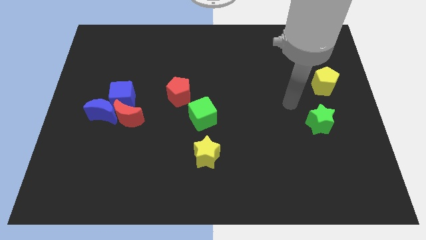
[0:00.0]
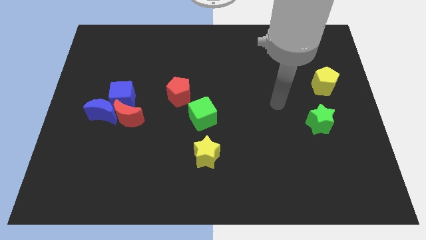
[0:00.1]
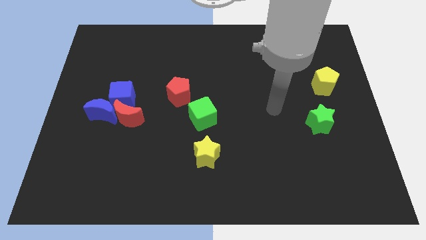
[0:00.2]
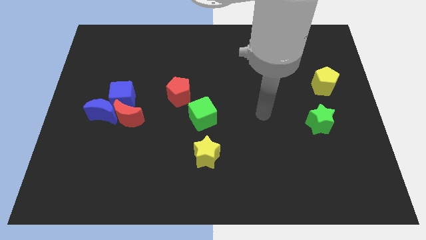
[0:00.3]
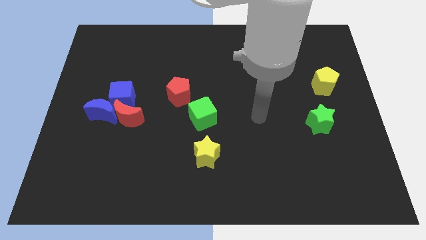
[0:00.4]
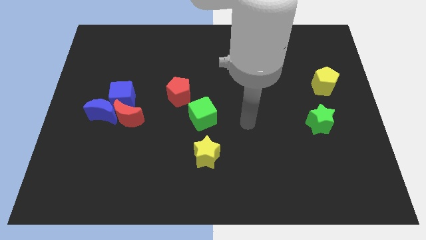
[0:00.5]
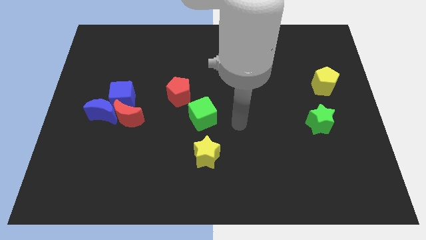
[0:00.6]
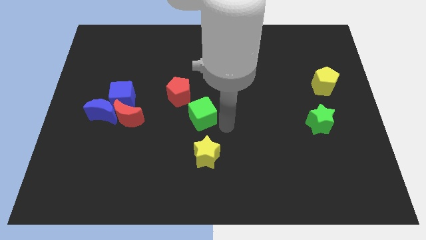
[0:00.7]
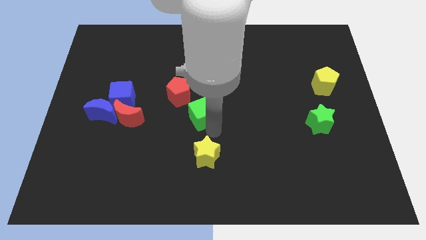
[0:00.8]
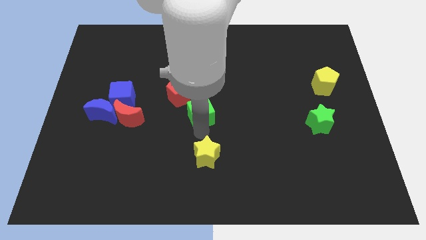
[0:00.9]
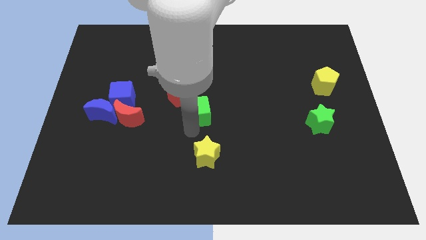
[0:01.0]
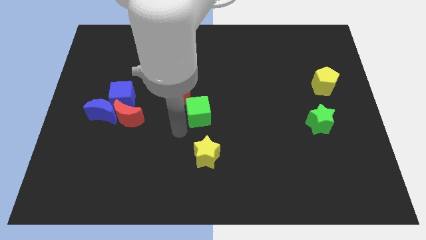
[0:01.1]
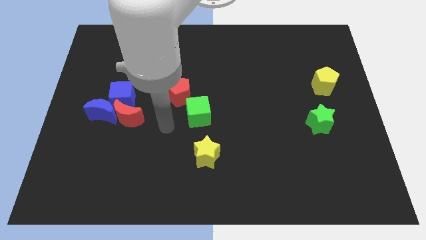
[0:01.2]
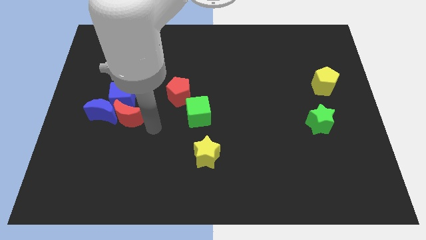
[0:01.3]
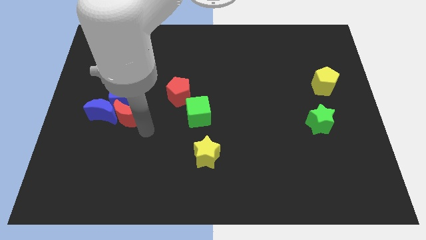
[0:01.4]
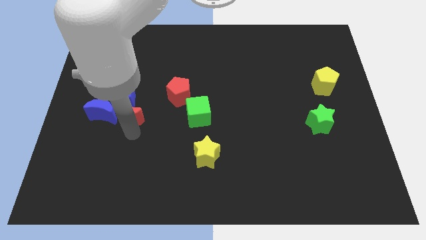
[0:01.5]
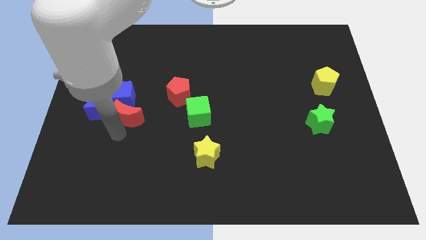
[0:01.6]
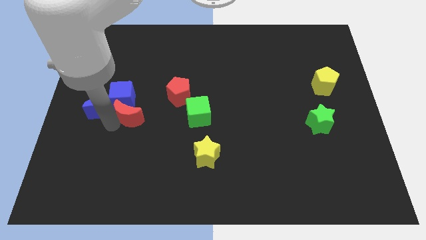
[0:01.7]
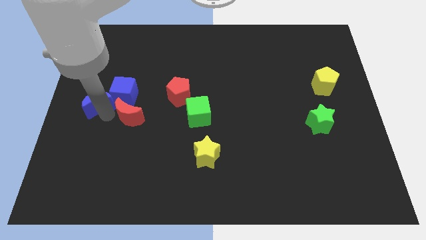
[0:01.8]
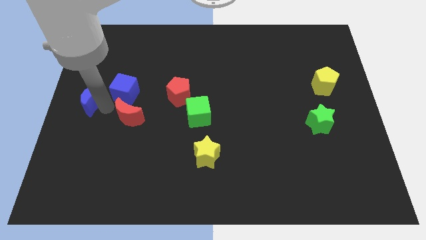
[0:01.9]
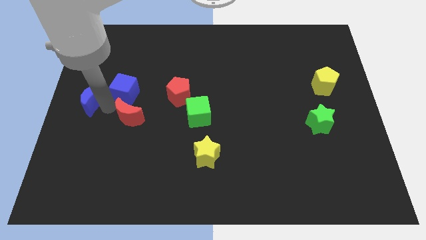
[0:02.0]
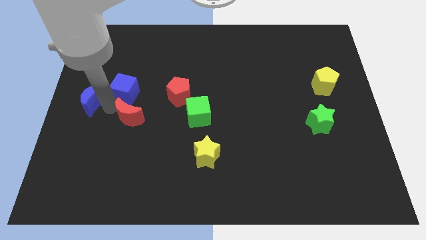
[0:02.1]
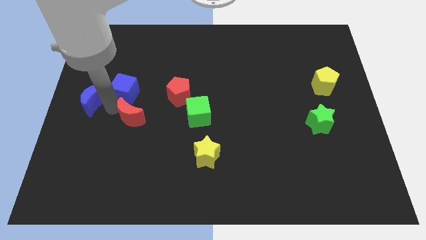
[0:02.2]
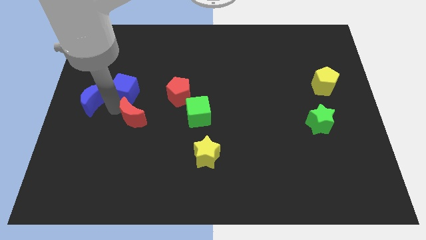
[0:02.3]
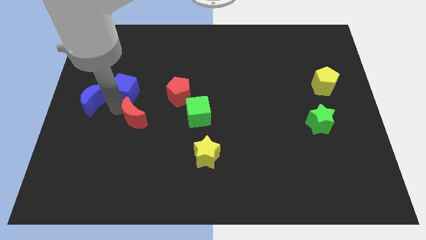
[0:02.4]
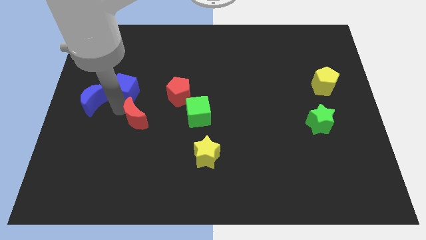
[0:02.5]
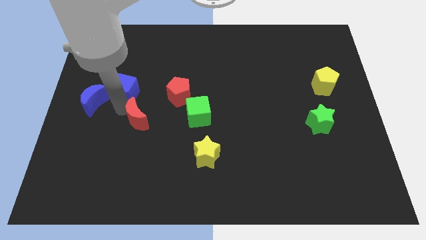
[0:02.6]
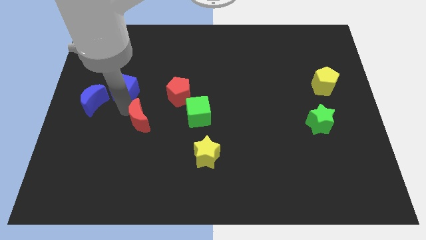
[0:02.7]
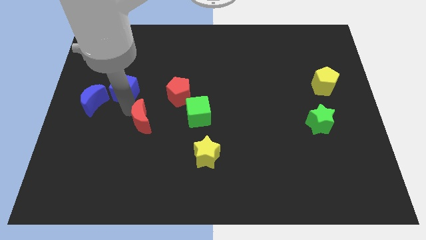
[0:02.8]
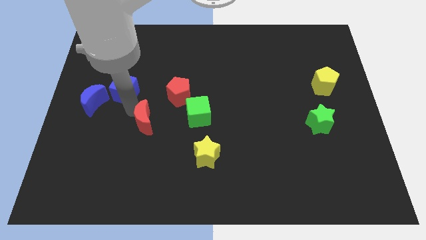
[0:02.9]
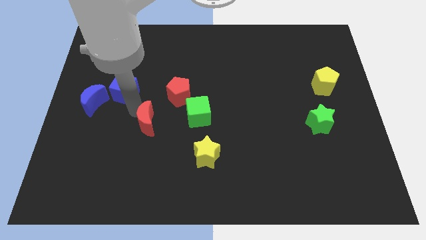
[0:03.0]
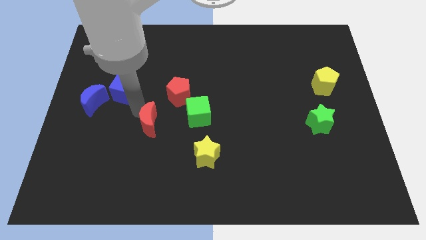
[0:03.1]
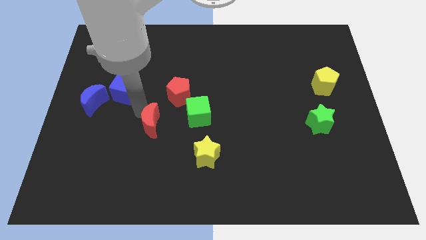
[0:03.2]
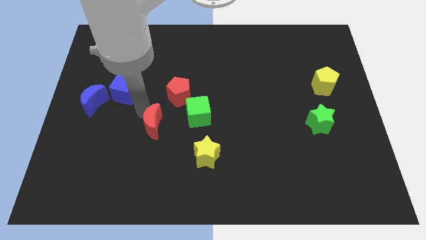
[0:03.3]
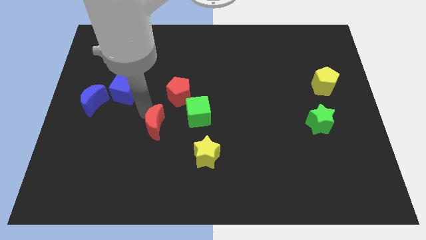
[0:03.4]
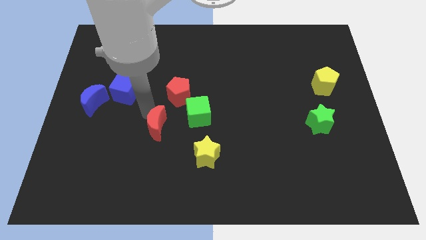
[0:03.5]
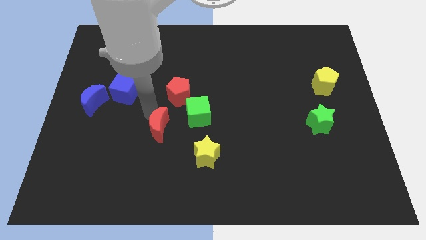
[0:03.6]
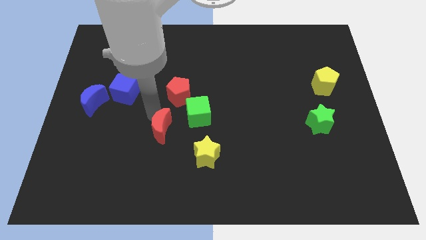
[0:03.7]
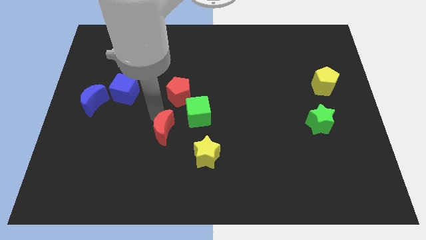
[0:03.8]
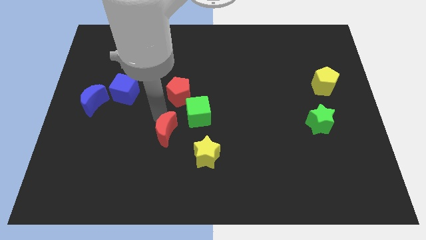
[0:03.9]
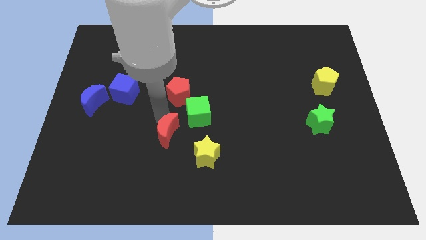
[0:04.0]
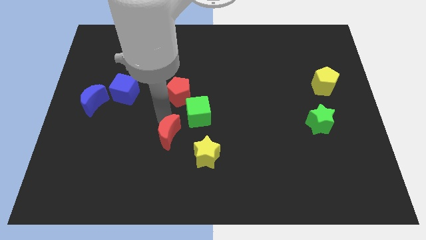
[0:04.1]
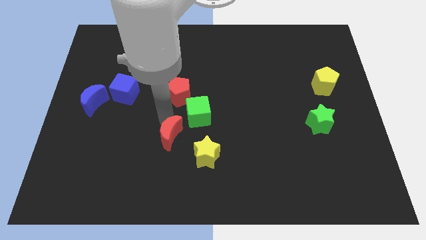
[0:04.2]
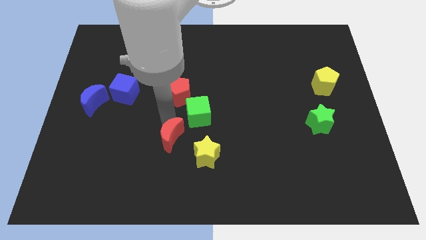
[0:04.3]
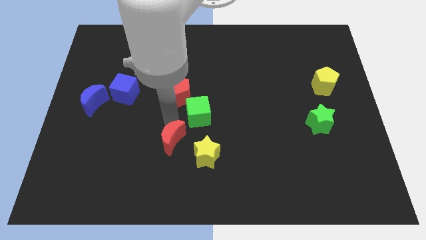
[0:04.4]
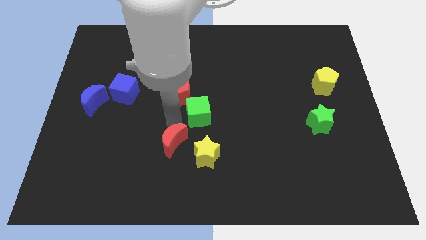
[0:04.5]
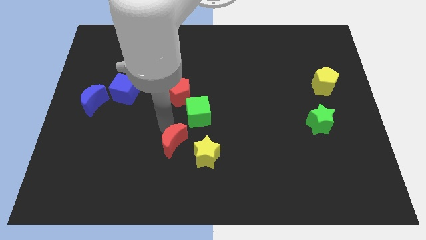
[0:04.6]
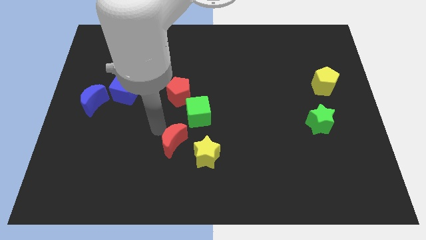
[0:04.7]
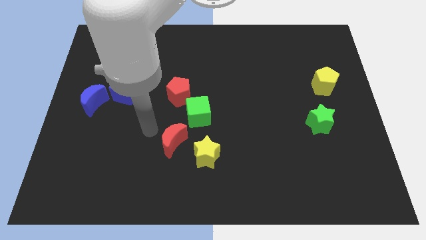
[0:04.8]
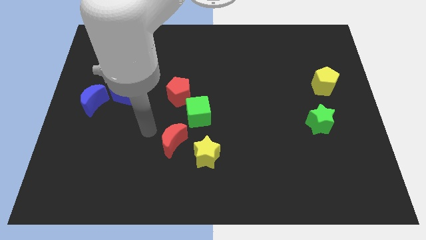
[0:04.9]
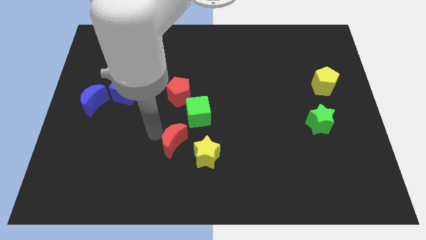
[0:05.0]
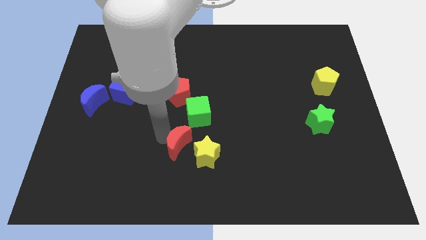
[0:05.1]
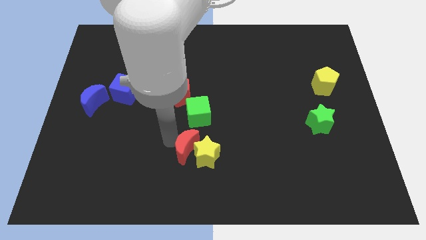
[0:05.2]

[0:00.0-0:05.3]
put the red moon to the yellow star

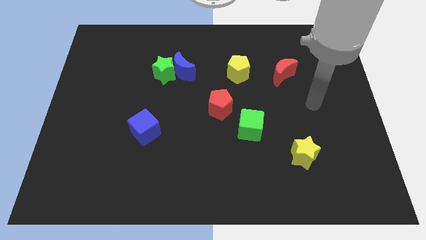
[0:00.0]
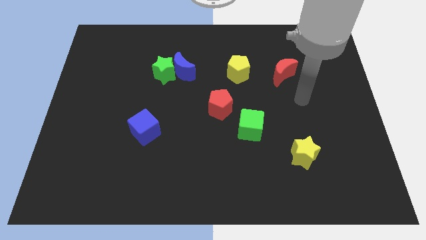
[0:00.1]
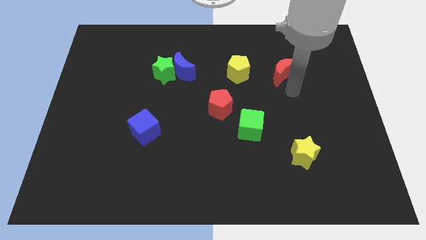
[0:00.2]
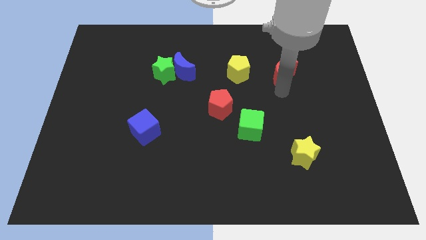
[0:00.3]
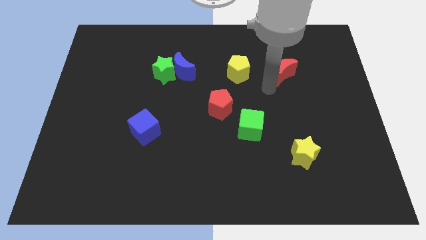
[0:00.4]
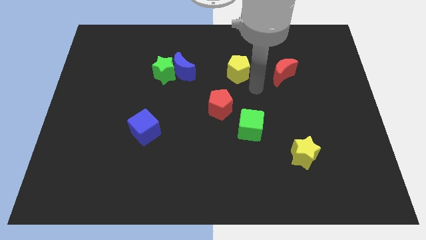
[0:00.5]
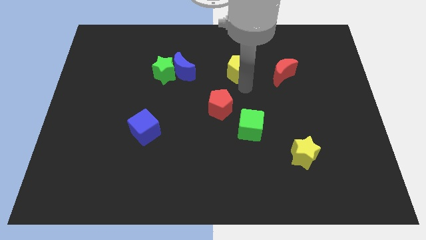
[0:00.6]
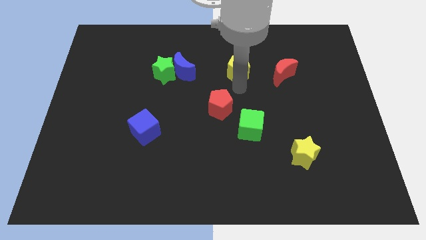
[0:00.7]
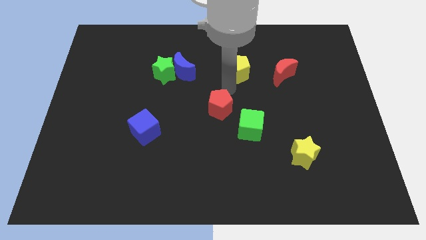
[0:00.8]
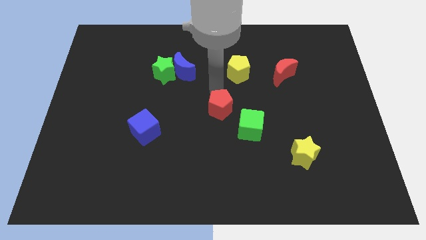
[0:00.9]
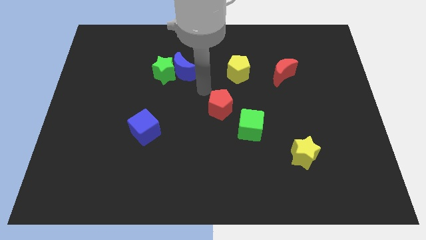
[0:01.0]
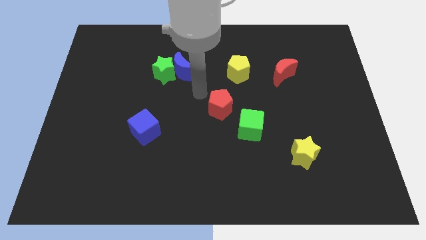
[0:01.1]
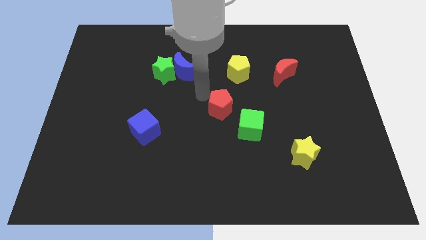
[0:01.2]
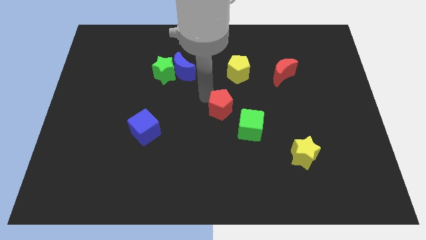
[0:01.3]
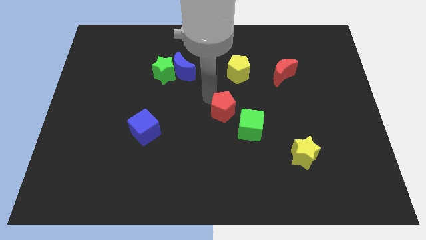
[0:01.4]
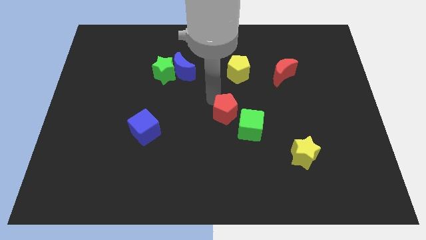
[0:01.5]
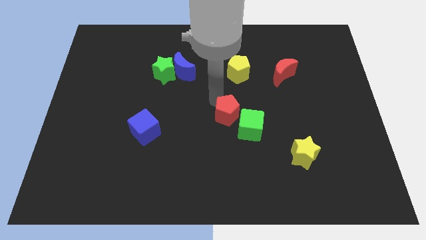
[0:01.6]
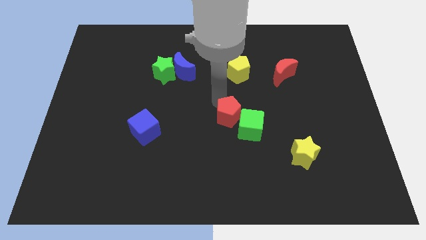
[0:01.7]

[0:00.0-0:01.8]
put the red pentagon to the green cube
